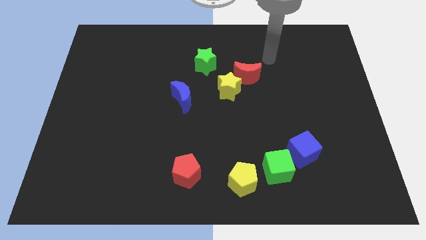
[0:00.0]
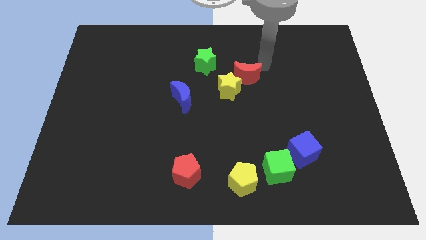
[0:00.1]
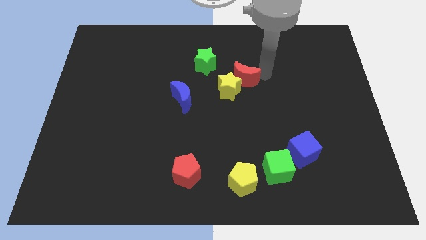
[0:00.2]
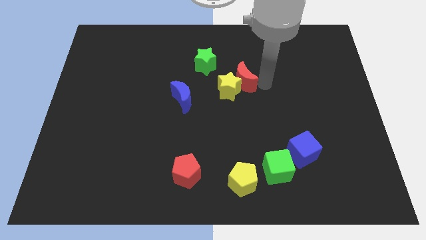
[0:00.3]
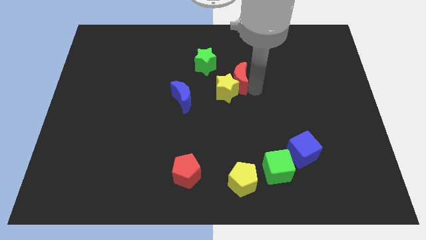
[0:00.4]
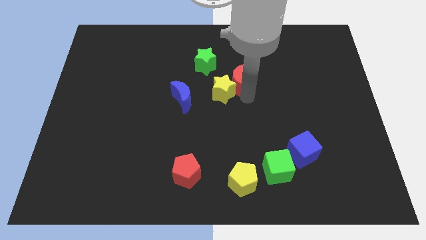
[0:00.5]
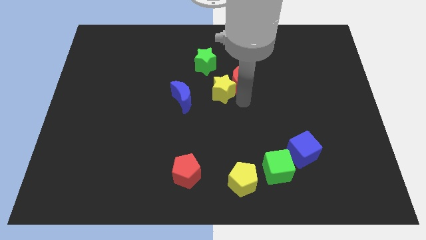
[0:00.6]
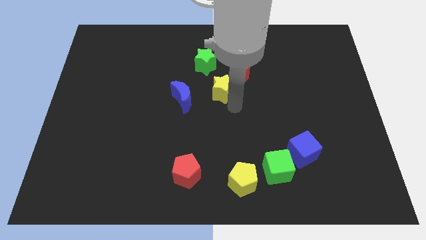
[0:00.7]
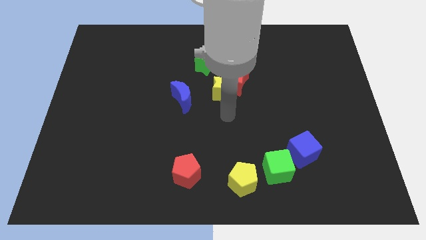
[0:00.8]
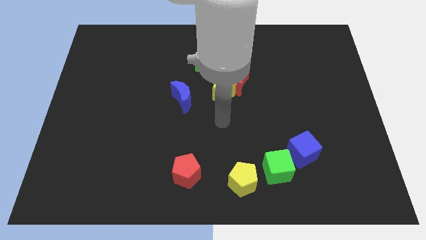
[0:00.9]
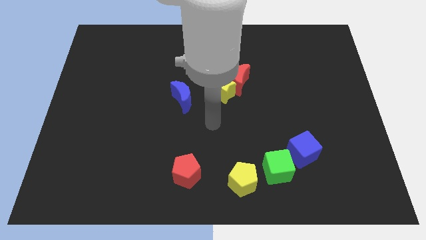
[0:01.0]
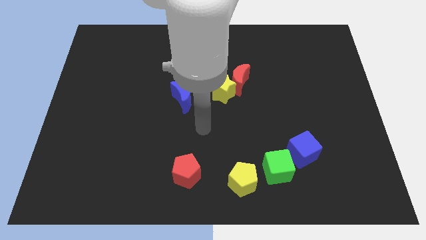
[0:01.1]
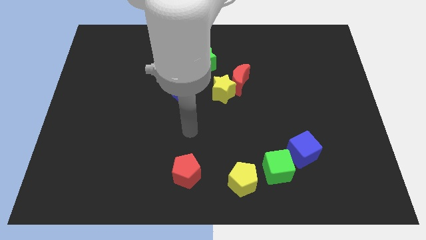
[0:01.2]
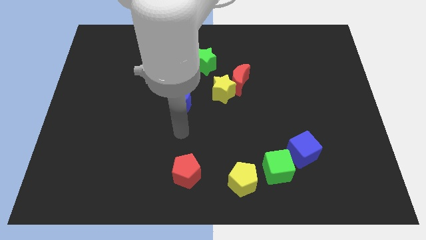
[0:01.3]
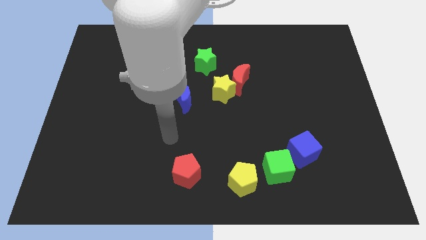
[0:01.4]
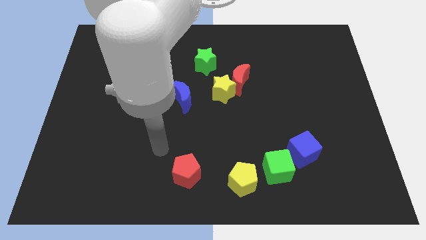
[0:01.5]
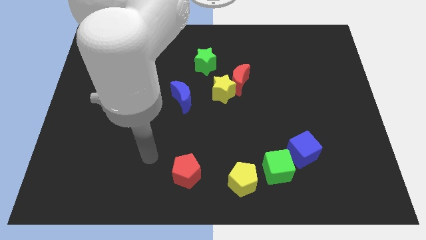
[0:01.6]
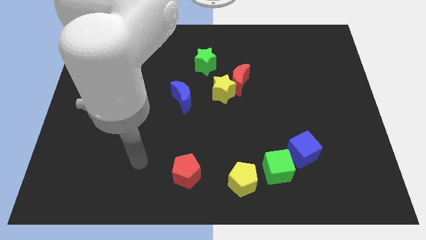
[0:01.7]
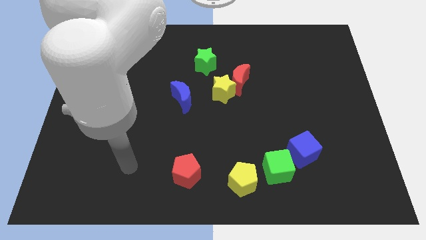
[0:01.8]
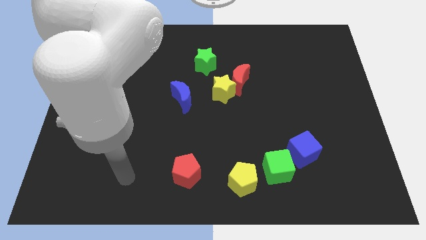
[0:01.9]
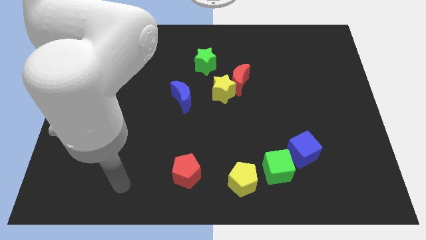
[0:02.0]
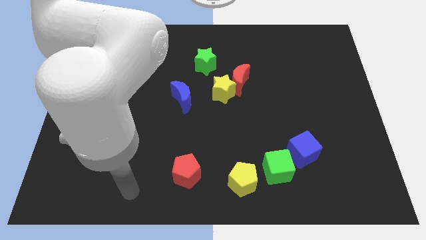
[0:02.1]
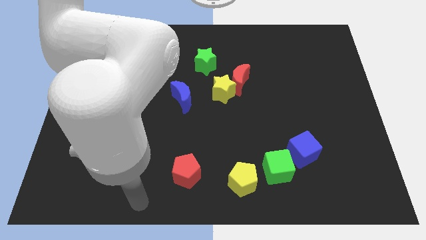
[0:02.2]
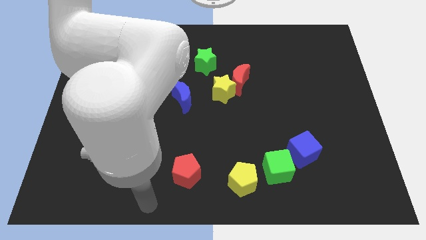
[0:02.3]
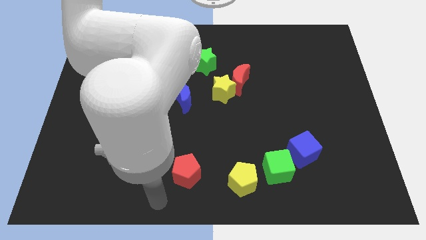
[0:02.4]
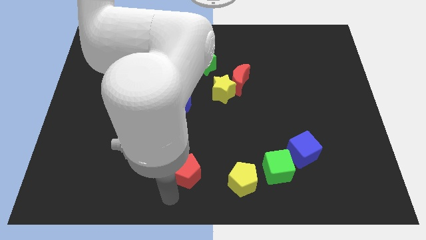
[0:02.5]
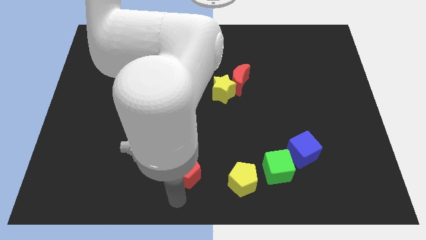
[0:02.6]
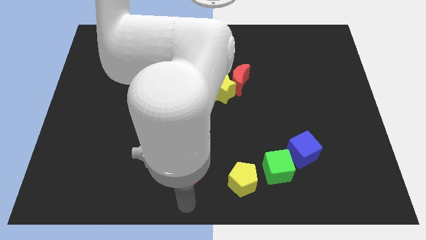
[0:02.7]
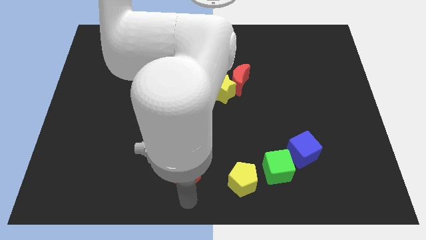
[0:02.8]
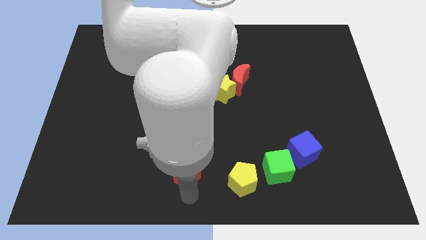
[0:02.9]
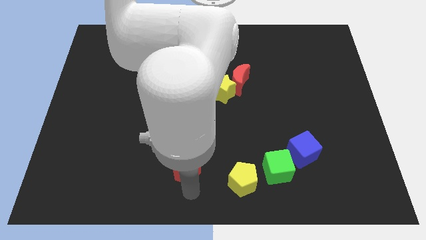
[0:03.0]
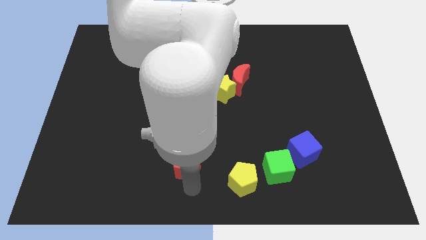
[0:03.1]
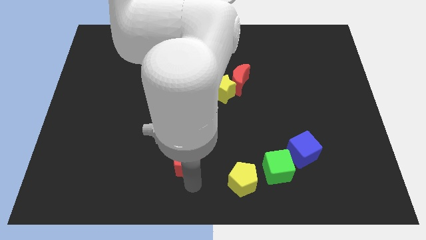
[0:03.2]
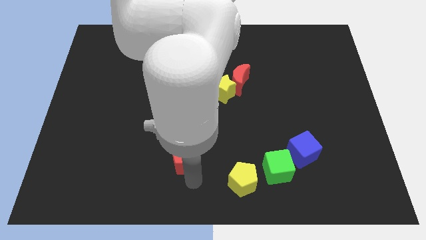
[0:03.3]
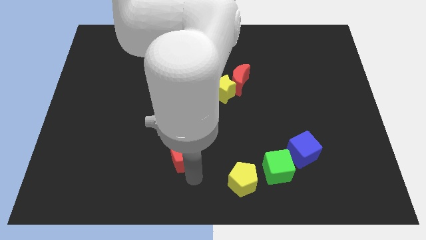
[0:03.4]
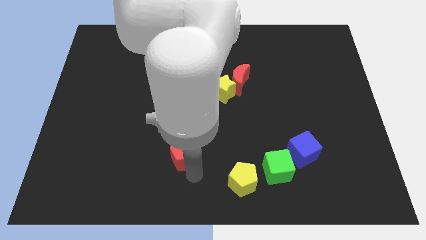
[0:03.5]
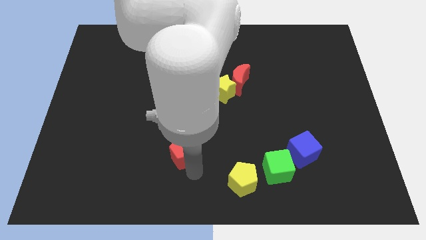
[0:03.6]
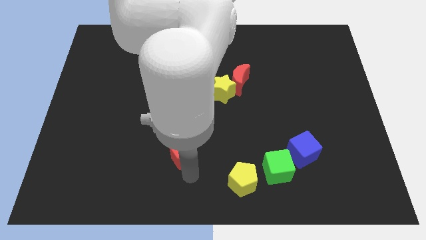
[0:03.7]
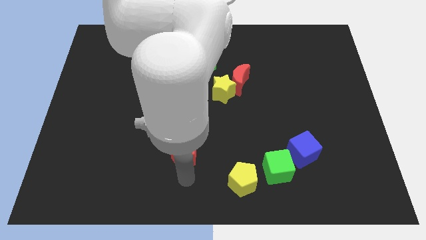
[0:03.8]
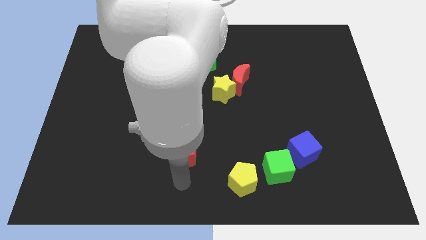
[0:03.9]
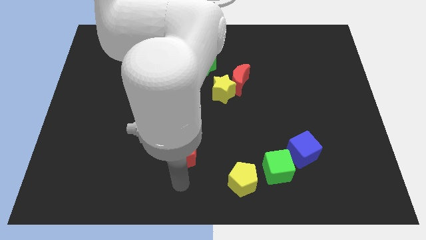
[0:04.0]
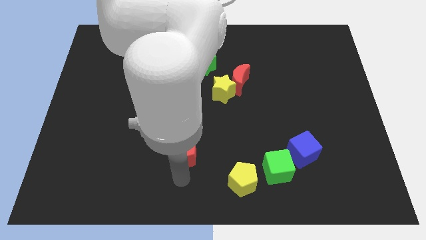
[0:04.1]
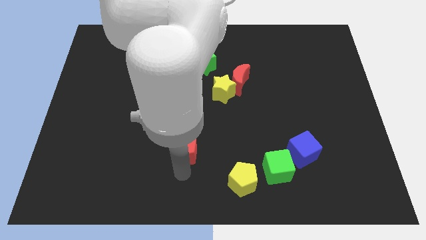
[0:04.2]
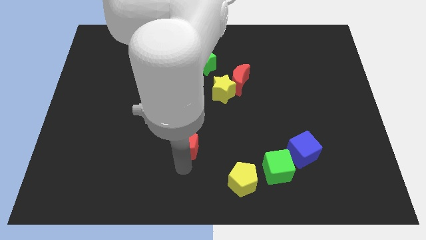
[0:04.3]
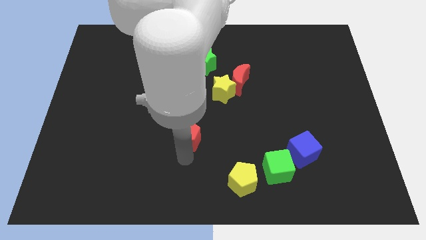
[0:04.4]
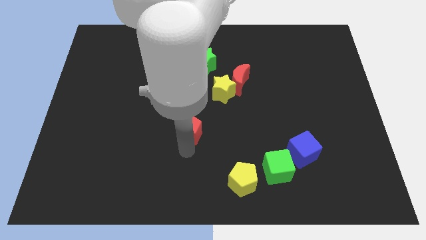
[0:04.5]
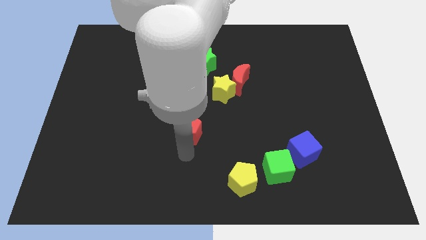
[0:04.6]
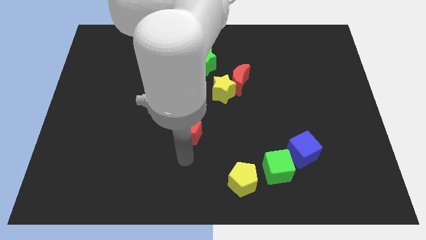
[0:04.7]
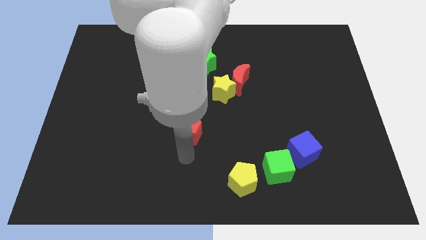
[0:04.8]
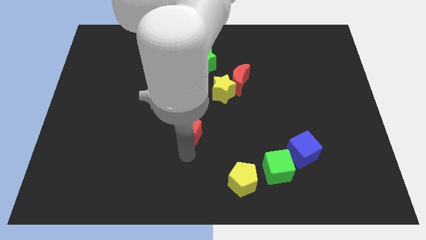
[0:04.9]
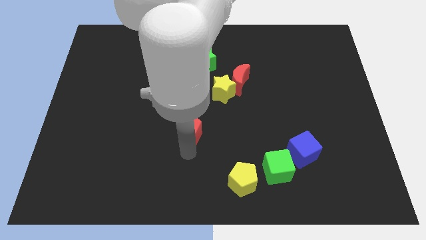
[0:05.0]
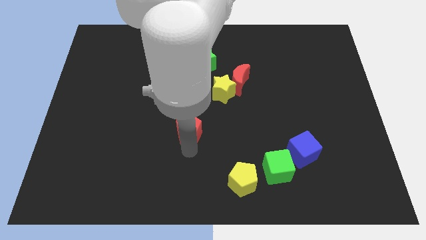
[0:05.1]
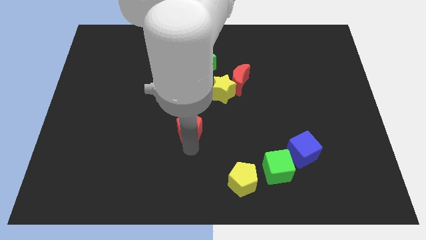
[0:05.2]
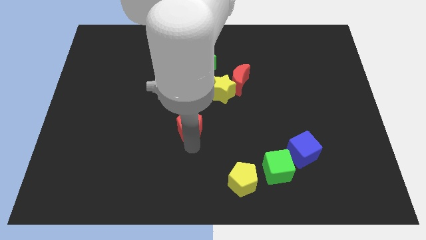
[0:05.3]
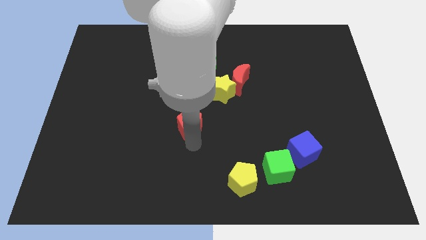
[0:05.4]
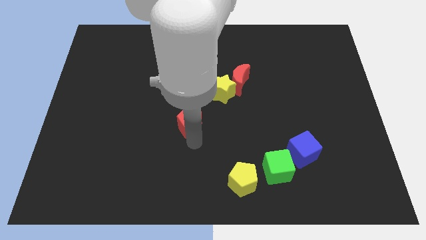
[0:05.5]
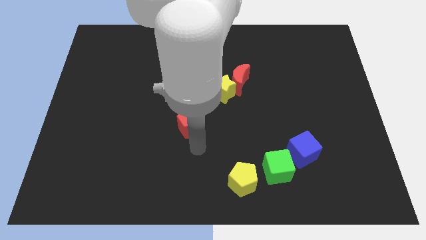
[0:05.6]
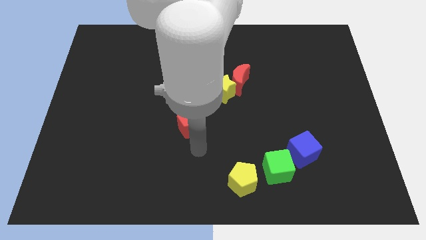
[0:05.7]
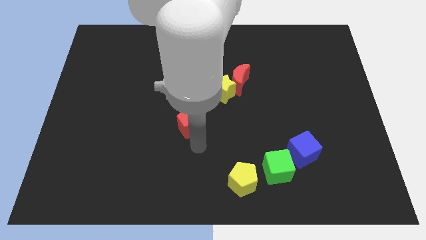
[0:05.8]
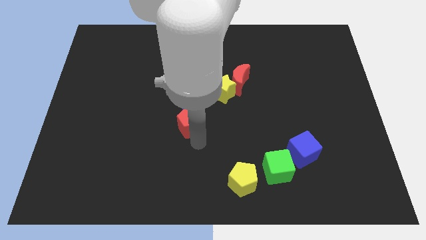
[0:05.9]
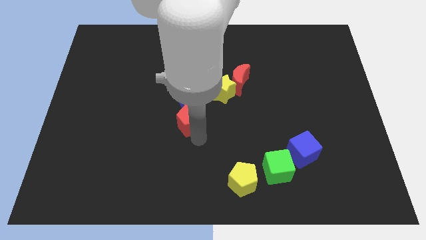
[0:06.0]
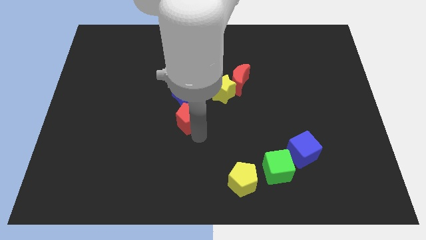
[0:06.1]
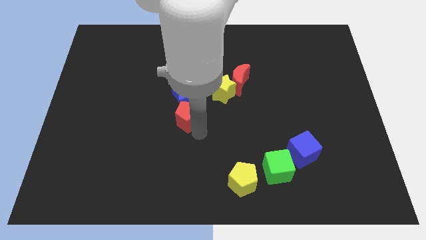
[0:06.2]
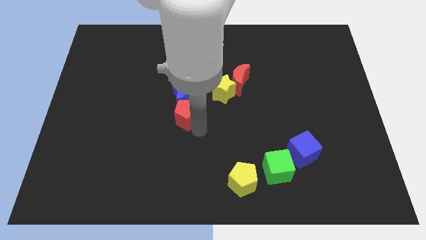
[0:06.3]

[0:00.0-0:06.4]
put the red pentagon next to the blue moon

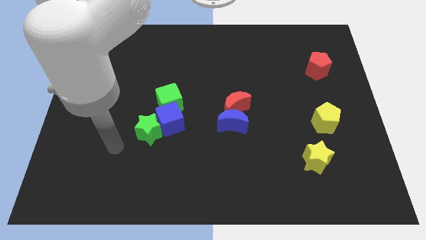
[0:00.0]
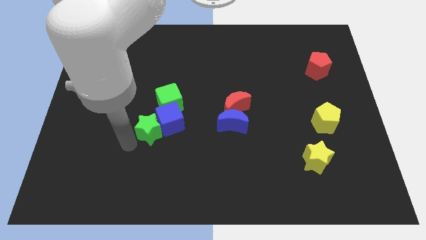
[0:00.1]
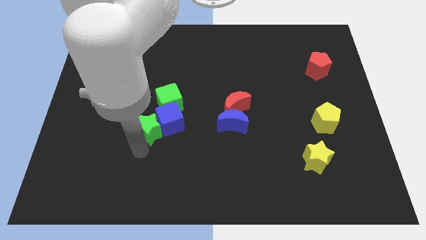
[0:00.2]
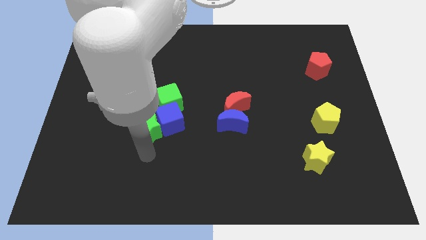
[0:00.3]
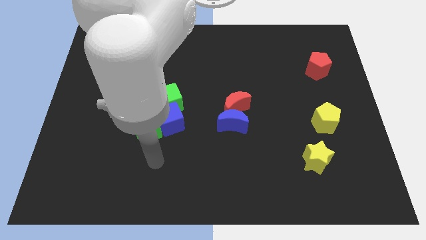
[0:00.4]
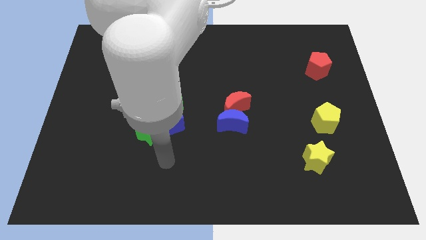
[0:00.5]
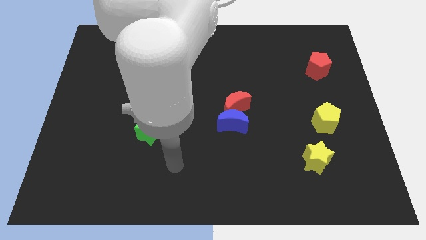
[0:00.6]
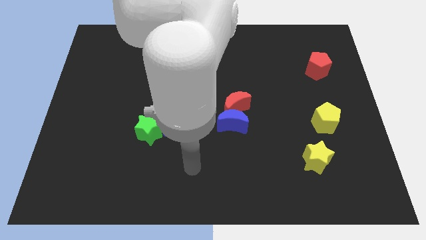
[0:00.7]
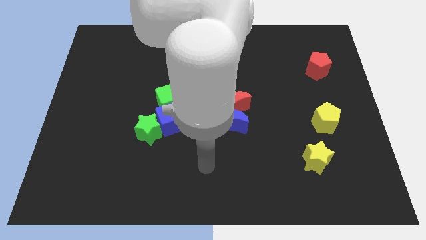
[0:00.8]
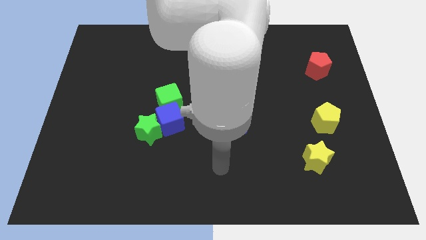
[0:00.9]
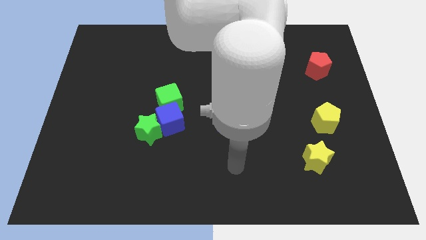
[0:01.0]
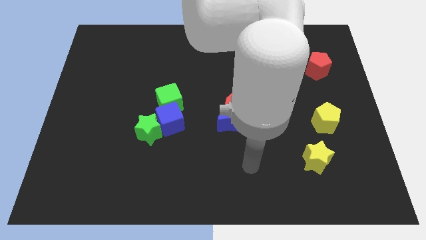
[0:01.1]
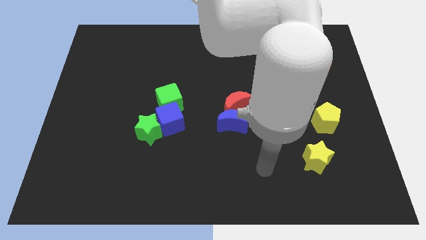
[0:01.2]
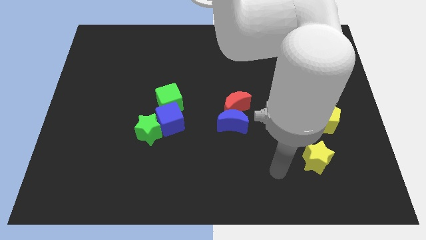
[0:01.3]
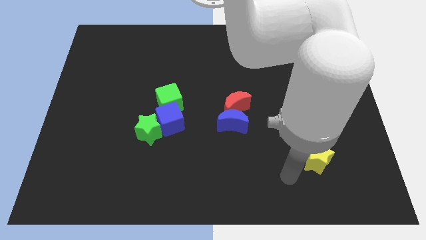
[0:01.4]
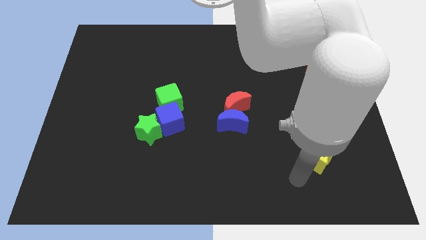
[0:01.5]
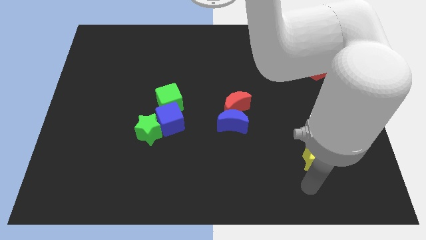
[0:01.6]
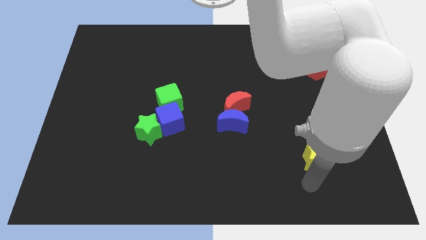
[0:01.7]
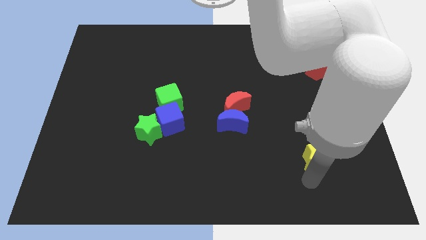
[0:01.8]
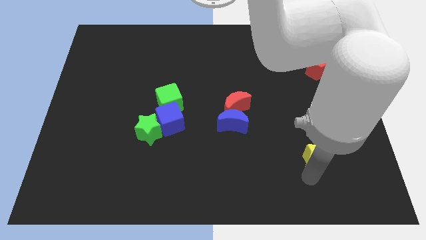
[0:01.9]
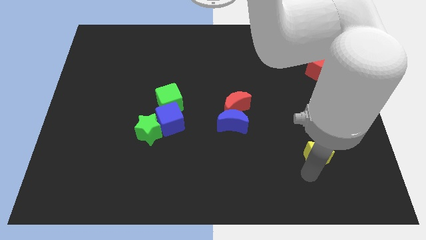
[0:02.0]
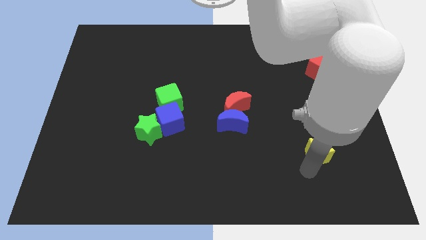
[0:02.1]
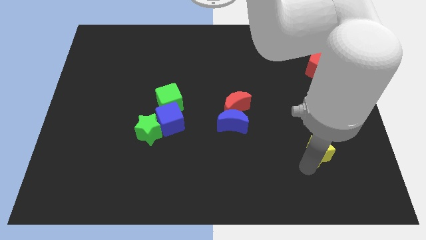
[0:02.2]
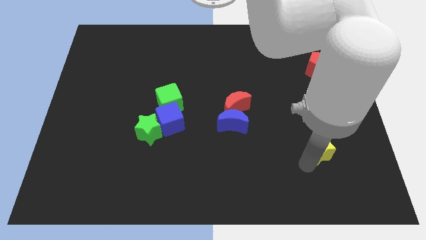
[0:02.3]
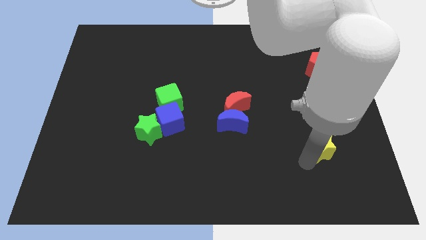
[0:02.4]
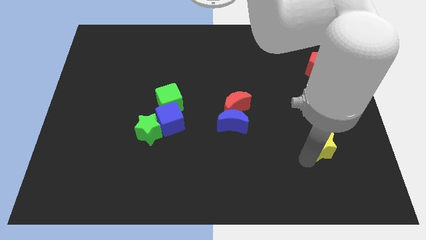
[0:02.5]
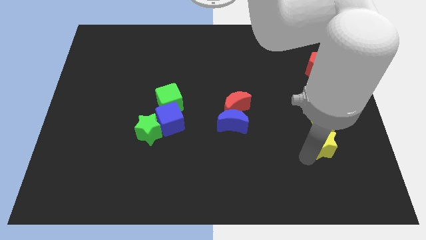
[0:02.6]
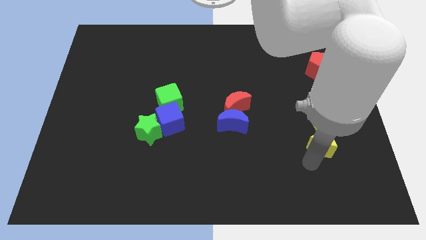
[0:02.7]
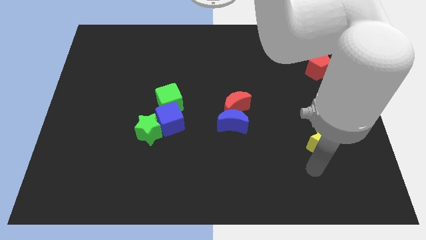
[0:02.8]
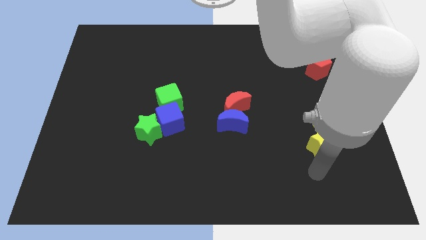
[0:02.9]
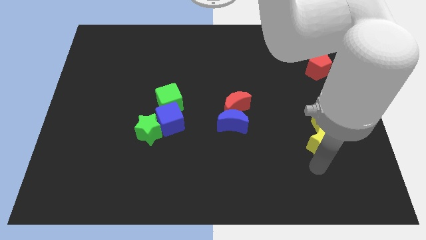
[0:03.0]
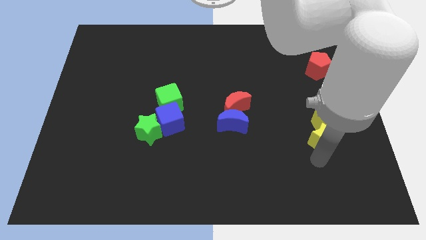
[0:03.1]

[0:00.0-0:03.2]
push the yellow star to the yellow pentagon
